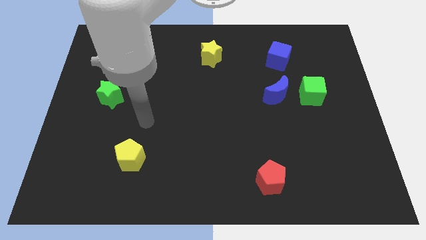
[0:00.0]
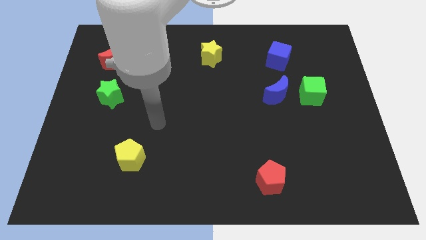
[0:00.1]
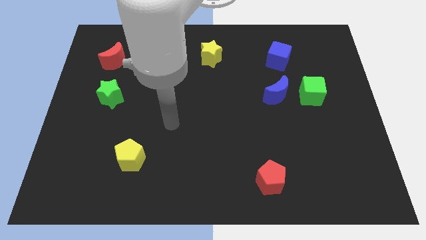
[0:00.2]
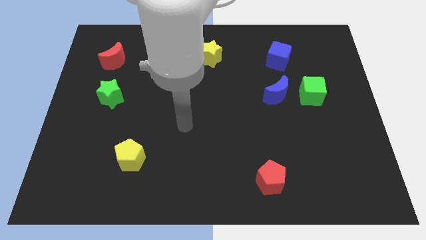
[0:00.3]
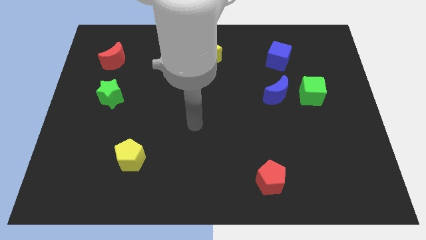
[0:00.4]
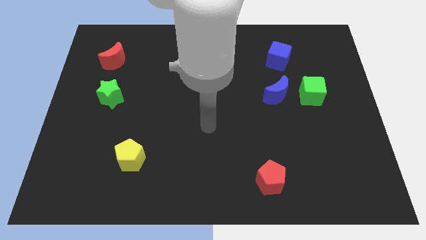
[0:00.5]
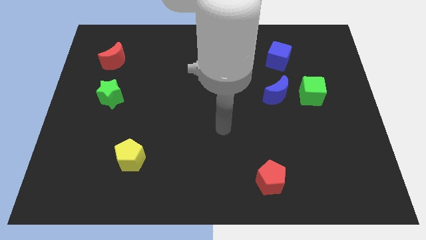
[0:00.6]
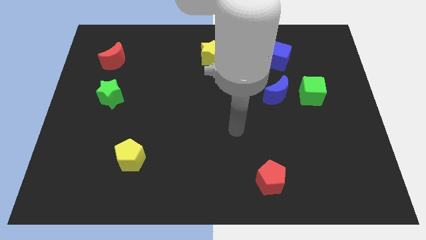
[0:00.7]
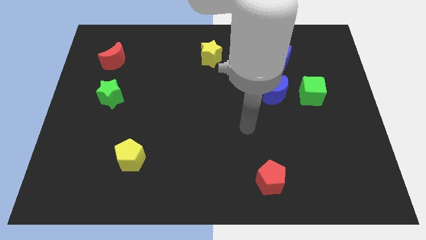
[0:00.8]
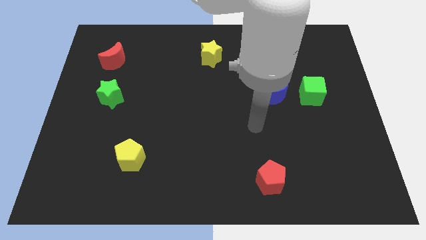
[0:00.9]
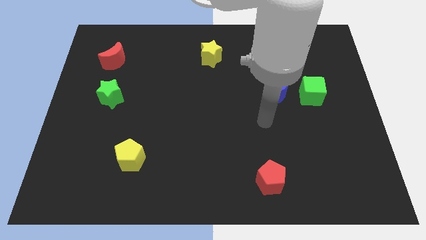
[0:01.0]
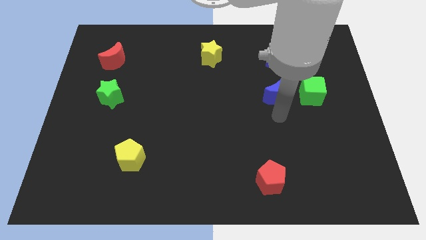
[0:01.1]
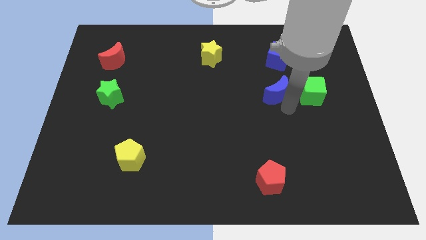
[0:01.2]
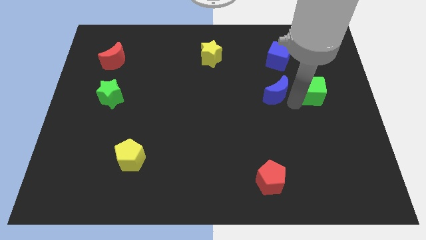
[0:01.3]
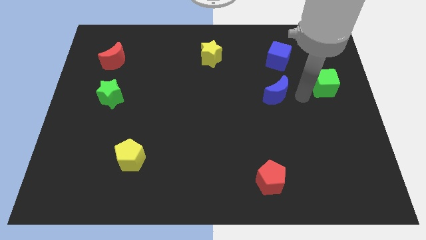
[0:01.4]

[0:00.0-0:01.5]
pull the blue moon apart from the green cube

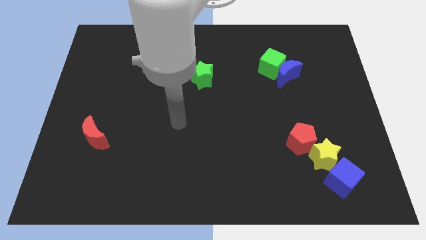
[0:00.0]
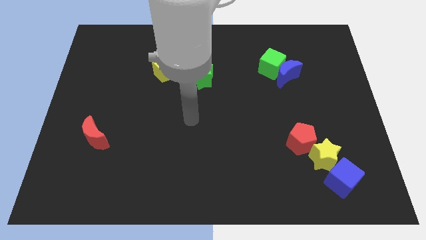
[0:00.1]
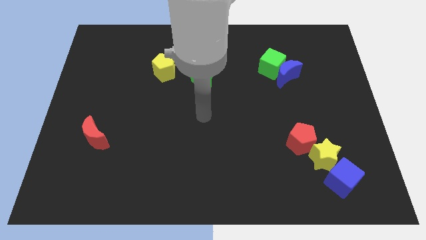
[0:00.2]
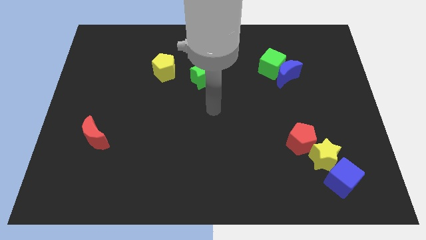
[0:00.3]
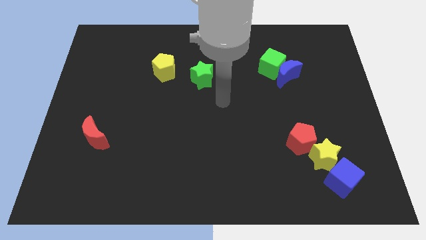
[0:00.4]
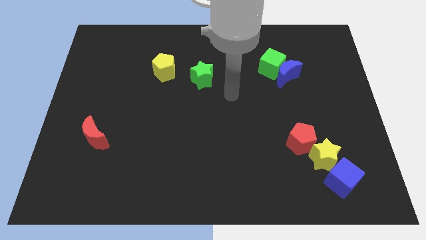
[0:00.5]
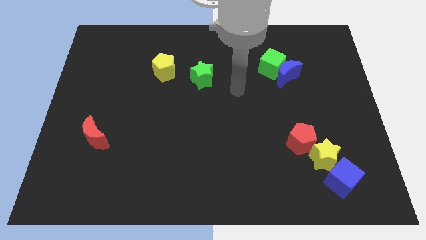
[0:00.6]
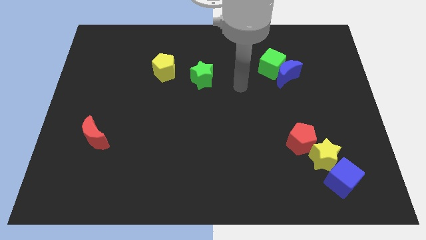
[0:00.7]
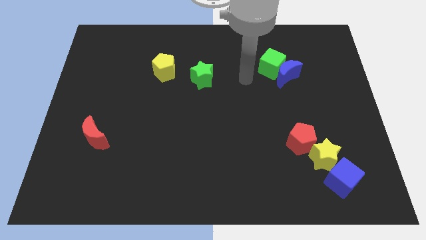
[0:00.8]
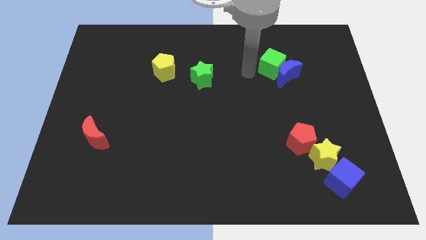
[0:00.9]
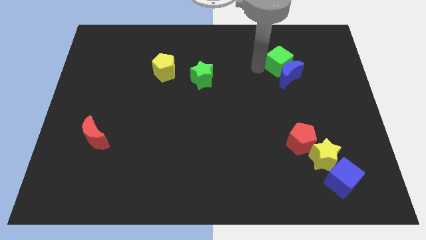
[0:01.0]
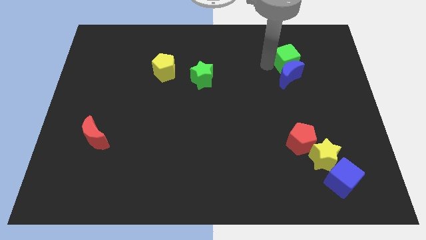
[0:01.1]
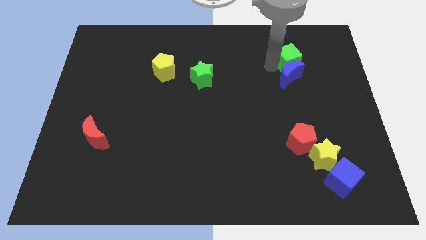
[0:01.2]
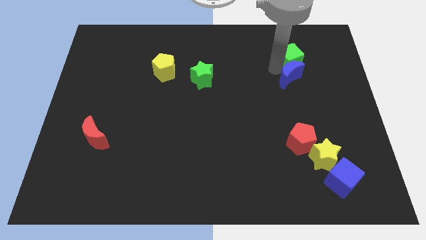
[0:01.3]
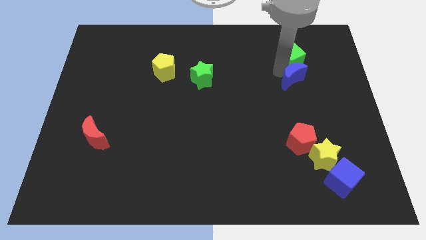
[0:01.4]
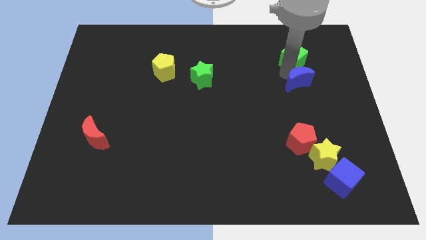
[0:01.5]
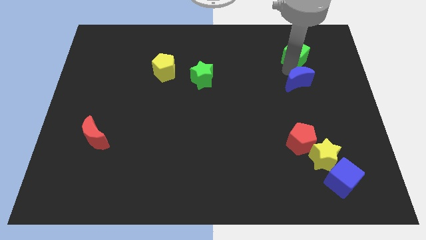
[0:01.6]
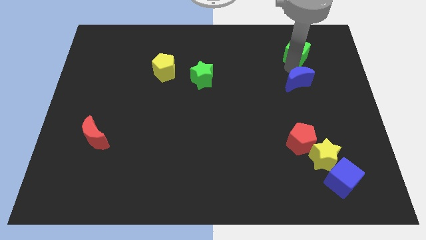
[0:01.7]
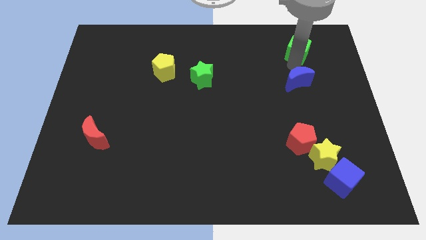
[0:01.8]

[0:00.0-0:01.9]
separate the blue moon from the green cube

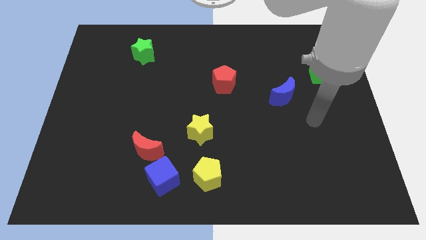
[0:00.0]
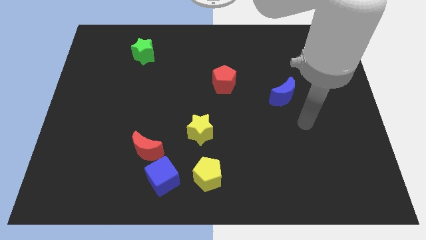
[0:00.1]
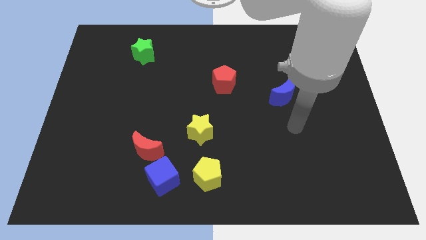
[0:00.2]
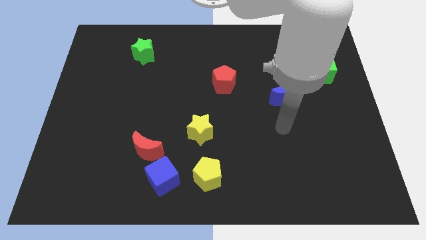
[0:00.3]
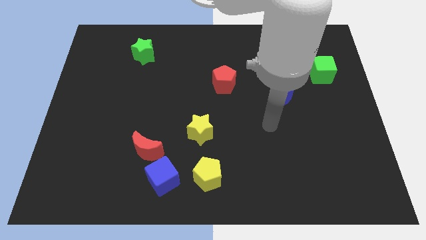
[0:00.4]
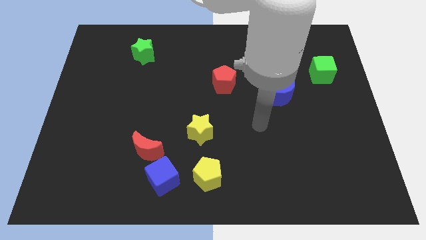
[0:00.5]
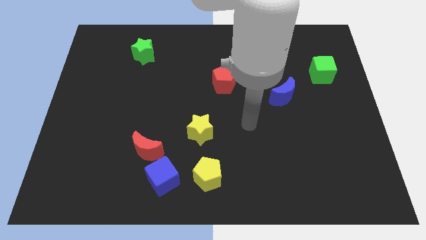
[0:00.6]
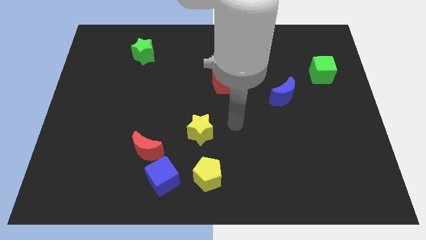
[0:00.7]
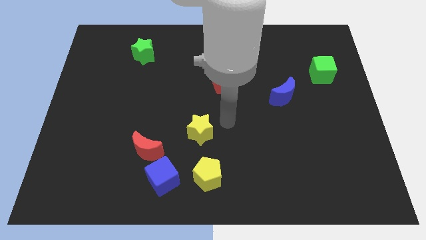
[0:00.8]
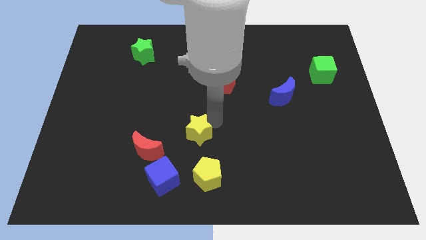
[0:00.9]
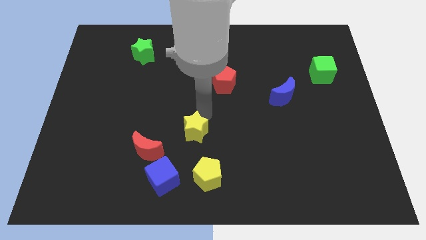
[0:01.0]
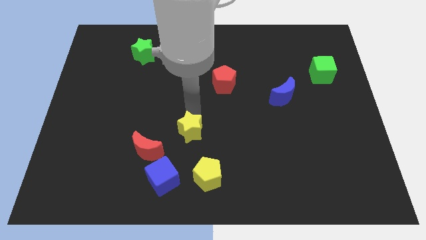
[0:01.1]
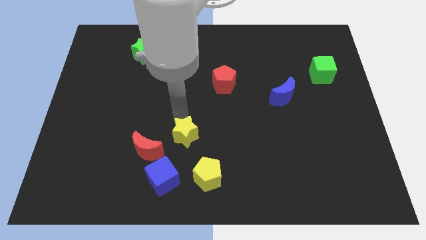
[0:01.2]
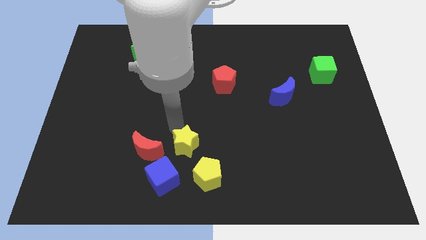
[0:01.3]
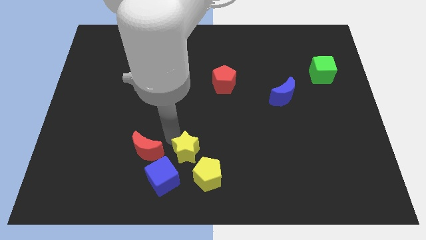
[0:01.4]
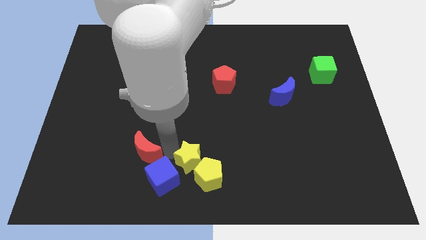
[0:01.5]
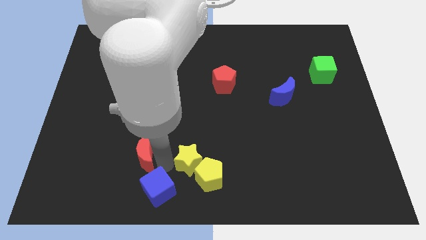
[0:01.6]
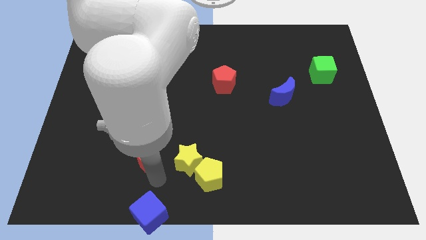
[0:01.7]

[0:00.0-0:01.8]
separate the red moon from the blue cube

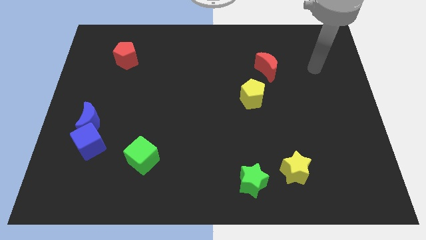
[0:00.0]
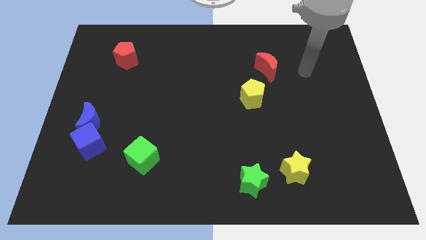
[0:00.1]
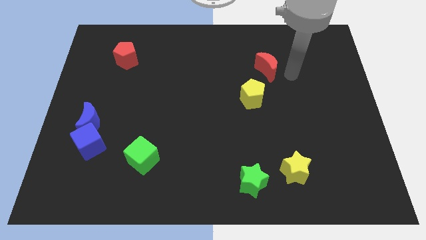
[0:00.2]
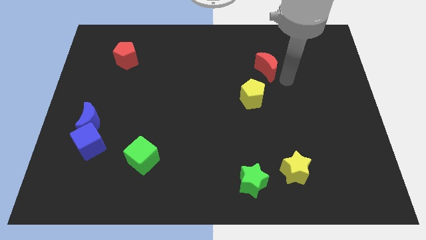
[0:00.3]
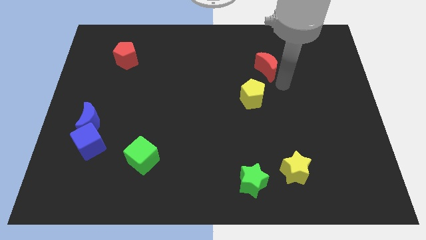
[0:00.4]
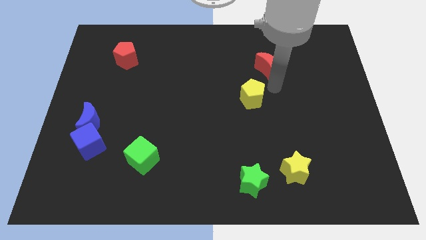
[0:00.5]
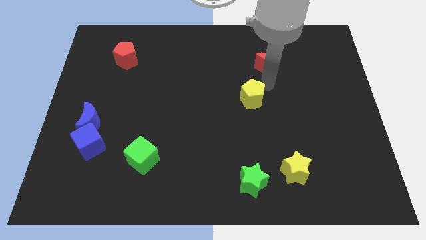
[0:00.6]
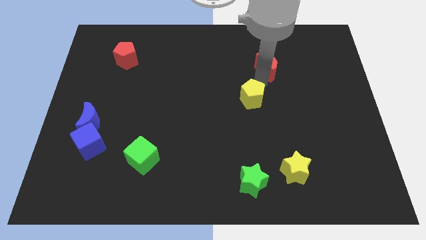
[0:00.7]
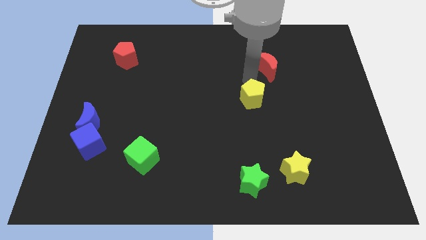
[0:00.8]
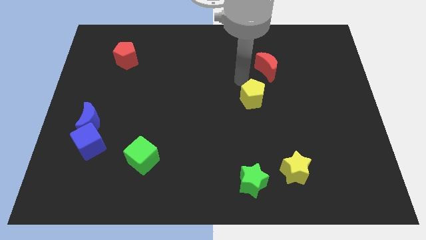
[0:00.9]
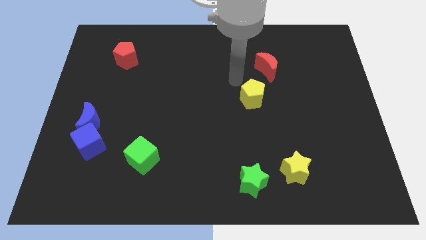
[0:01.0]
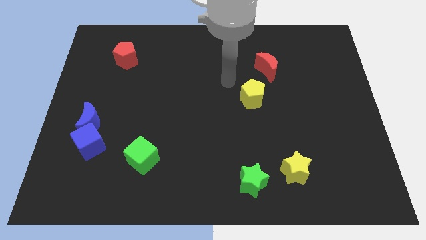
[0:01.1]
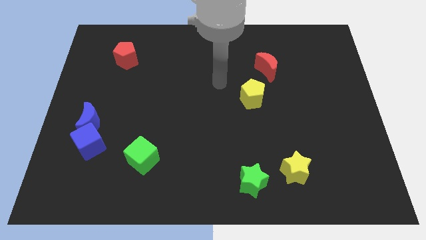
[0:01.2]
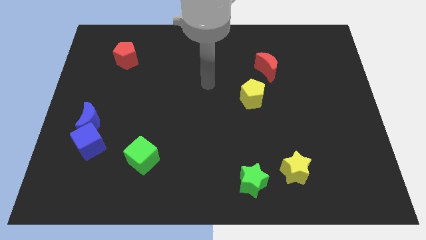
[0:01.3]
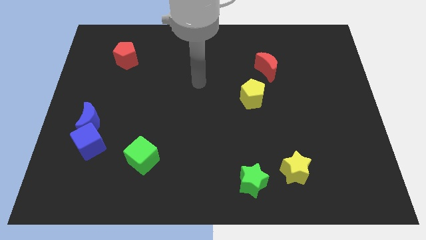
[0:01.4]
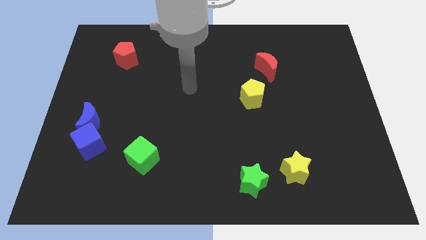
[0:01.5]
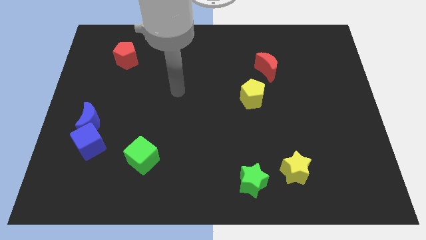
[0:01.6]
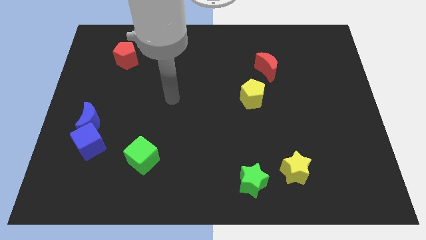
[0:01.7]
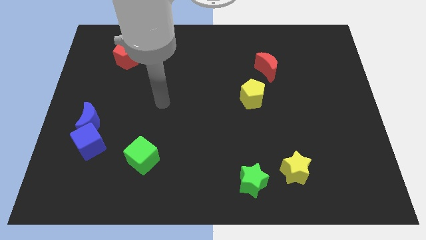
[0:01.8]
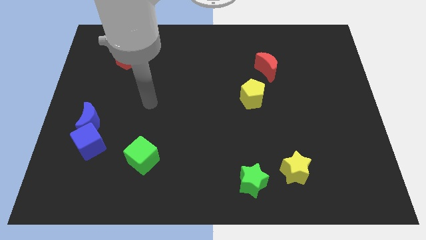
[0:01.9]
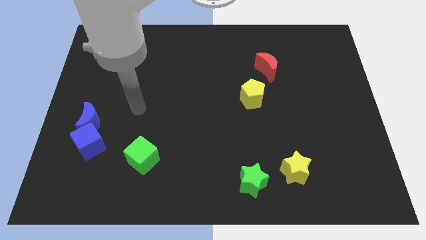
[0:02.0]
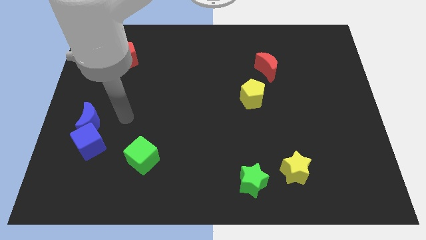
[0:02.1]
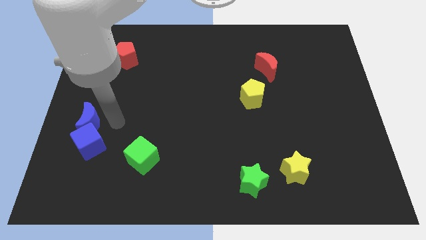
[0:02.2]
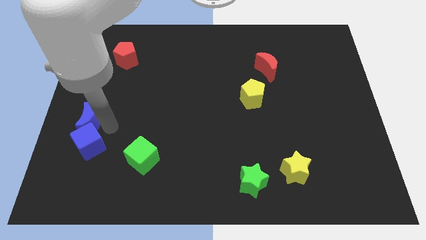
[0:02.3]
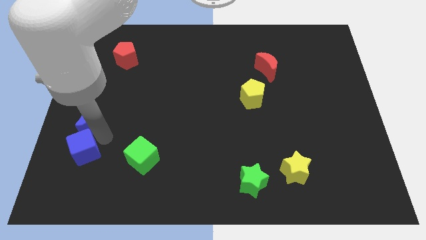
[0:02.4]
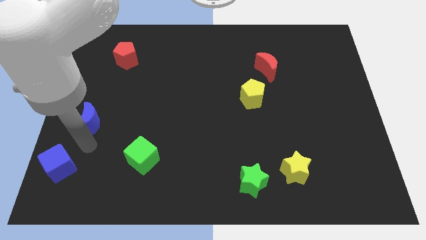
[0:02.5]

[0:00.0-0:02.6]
separate the blue moon from the blue cube

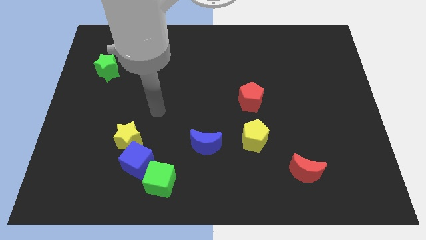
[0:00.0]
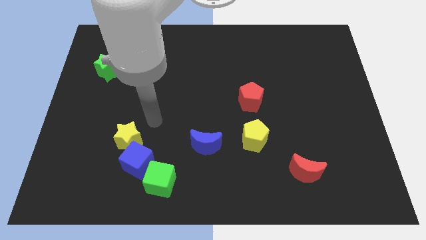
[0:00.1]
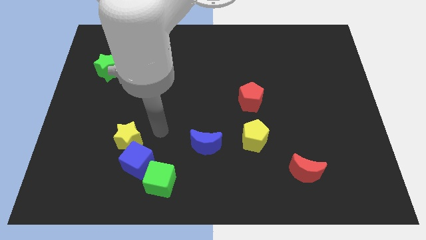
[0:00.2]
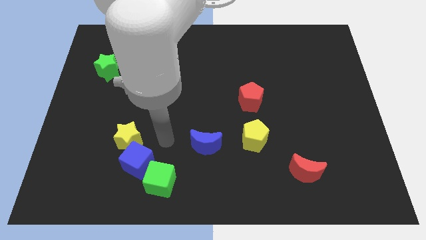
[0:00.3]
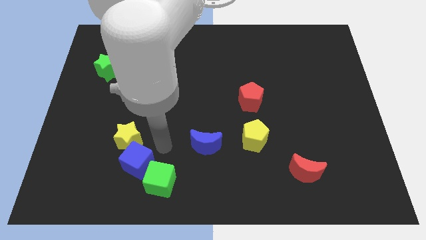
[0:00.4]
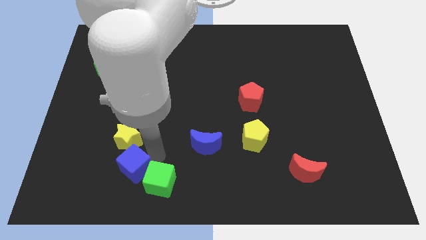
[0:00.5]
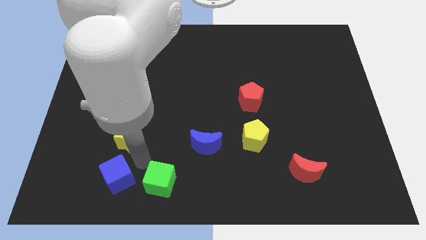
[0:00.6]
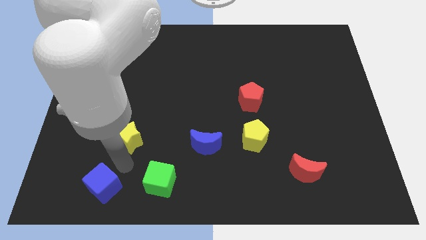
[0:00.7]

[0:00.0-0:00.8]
pull the yellow star apart from the blue cube

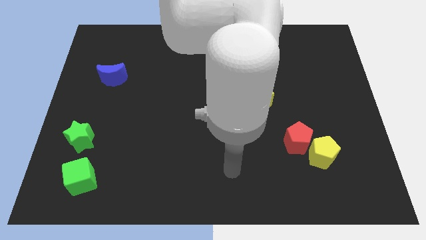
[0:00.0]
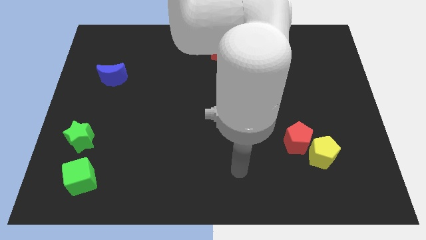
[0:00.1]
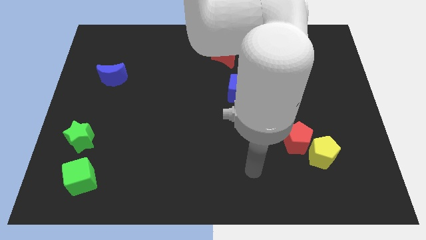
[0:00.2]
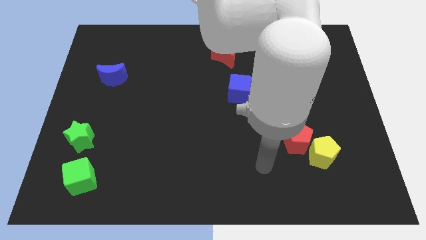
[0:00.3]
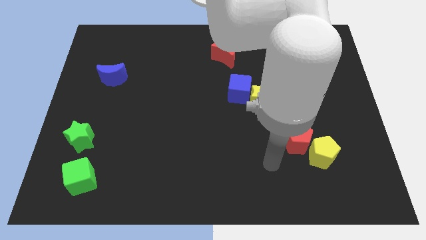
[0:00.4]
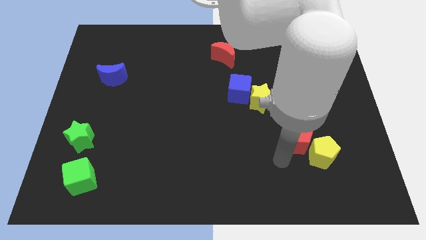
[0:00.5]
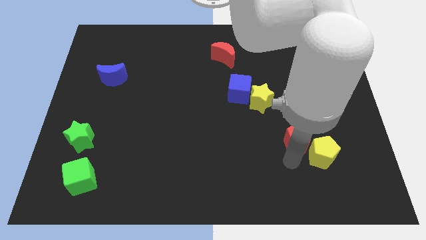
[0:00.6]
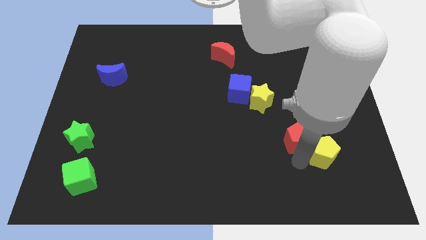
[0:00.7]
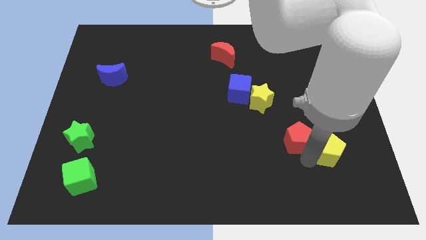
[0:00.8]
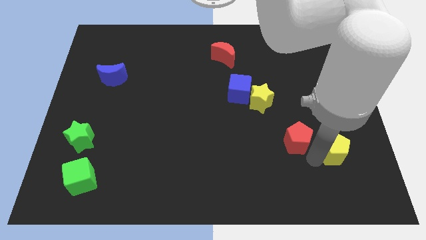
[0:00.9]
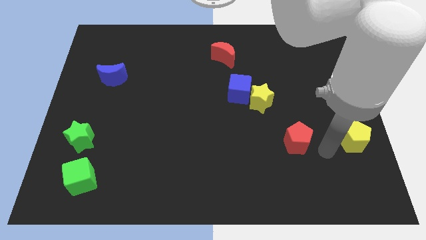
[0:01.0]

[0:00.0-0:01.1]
move the red pentagon away from the yellow pentagon
